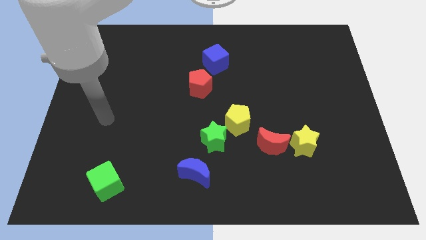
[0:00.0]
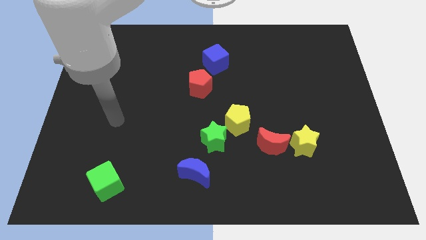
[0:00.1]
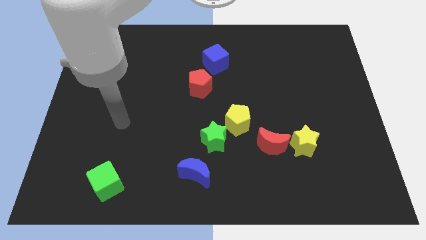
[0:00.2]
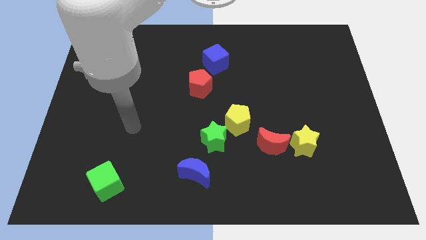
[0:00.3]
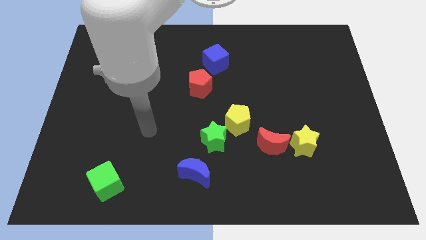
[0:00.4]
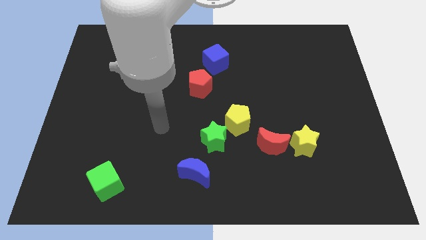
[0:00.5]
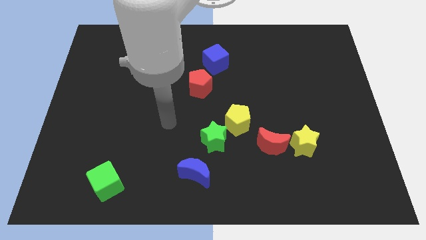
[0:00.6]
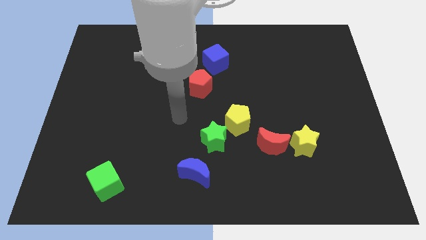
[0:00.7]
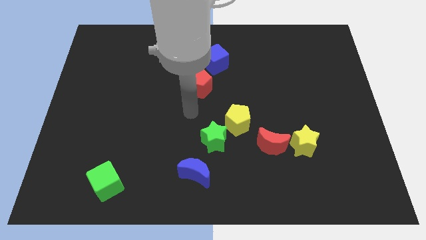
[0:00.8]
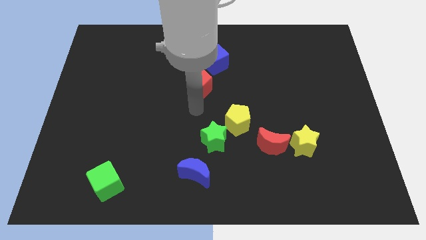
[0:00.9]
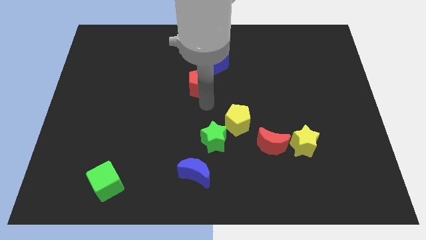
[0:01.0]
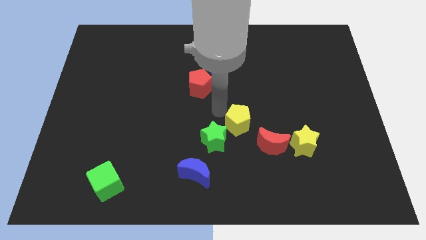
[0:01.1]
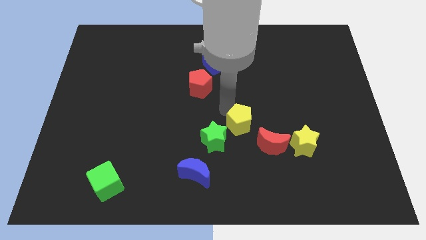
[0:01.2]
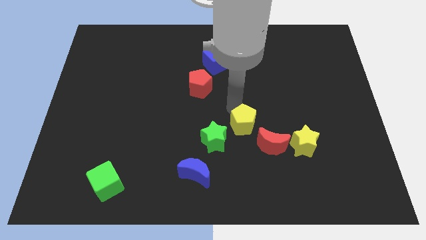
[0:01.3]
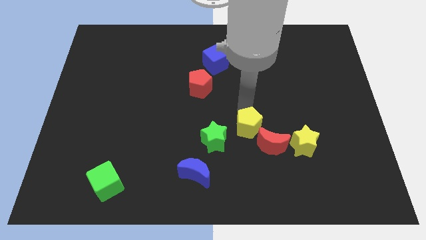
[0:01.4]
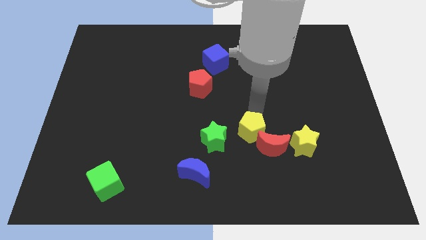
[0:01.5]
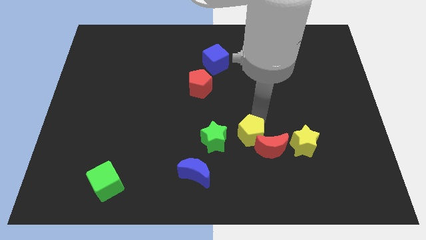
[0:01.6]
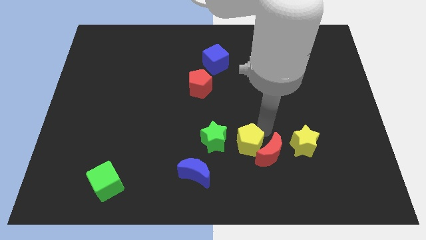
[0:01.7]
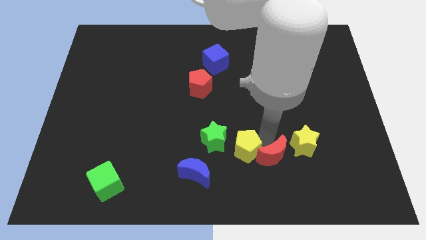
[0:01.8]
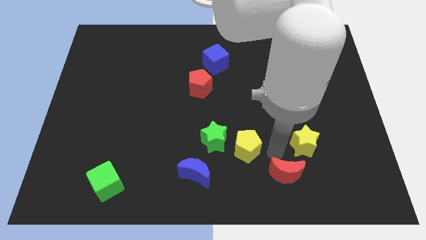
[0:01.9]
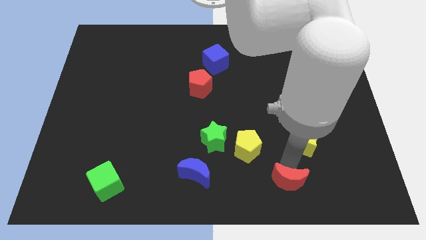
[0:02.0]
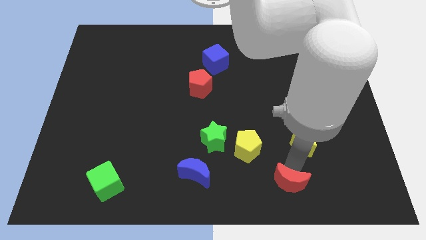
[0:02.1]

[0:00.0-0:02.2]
separate the yellow star from the red moon

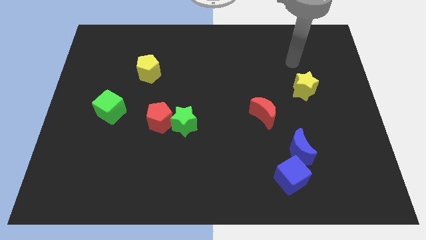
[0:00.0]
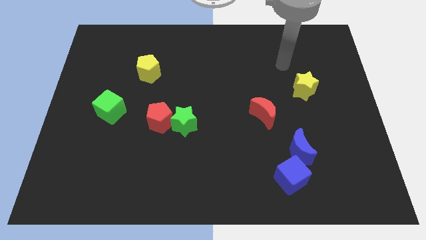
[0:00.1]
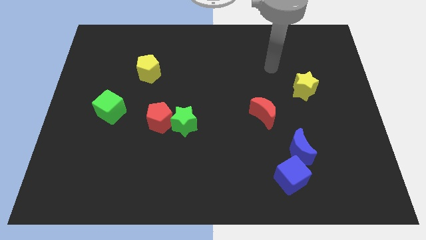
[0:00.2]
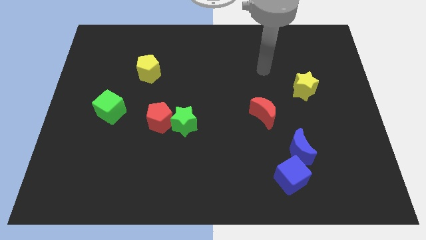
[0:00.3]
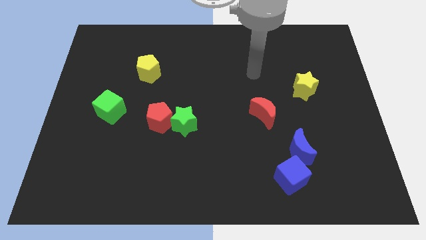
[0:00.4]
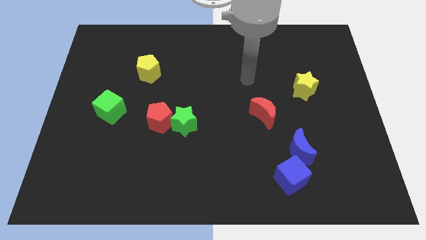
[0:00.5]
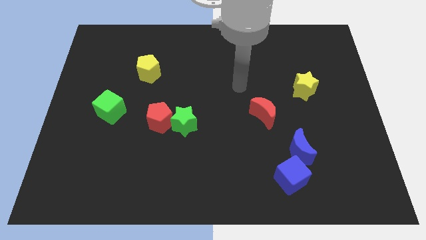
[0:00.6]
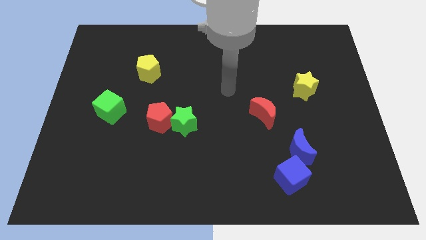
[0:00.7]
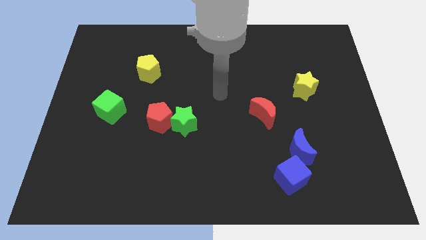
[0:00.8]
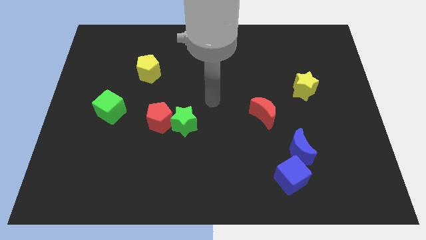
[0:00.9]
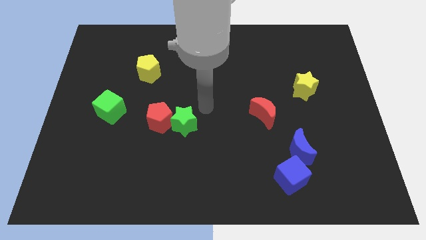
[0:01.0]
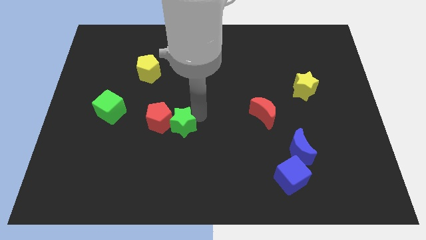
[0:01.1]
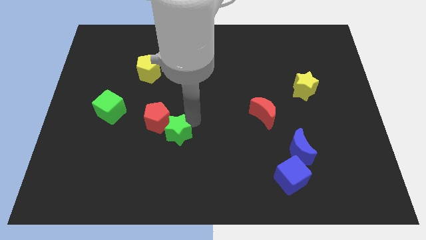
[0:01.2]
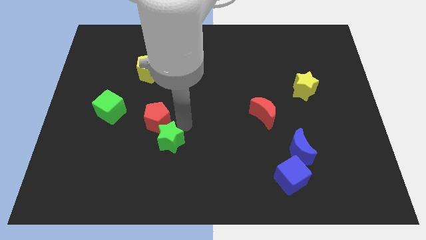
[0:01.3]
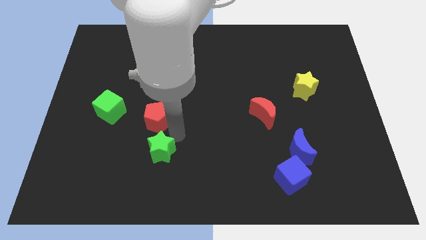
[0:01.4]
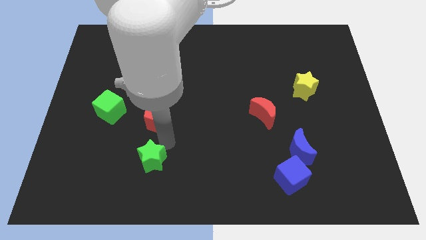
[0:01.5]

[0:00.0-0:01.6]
move the red pentagon away from the green star

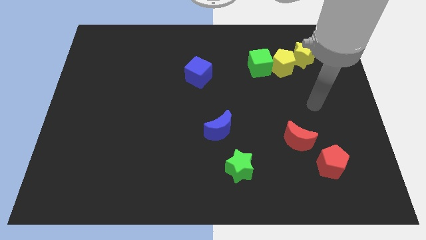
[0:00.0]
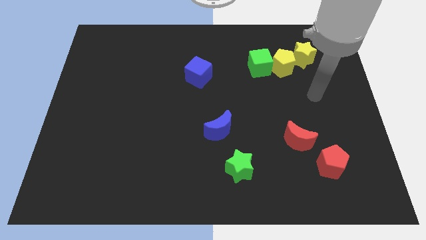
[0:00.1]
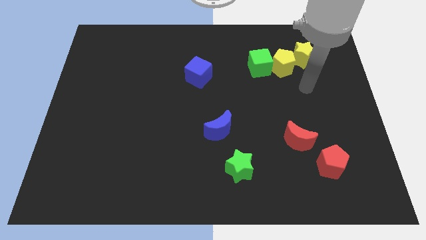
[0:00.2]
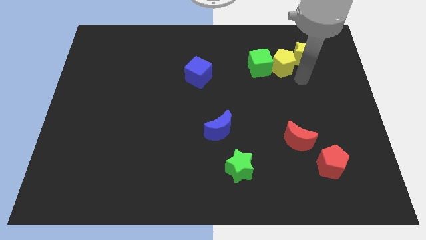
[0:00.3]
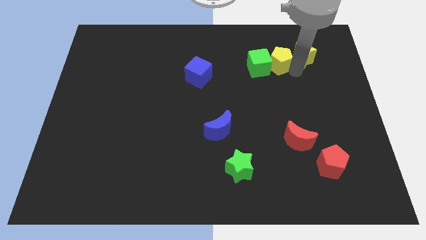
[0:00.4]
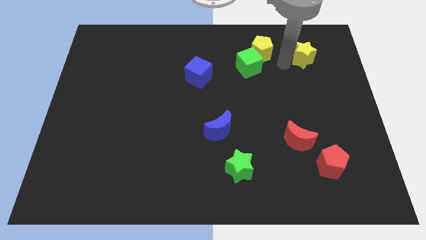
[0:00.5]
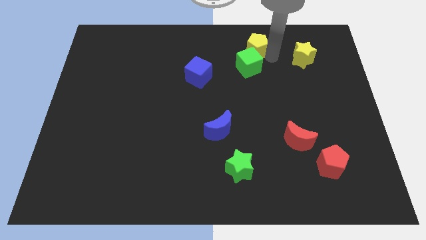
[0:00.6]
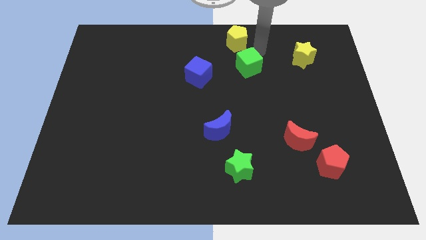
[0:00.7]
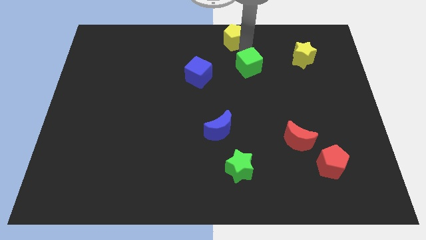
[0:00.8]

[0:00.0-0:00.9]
separate the green cube from the yellow pentagon

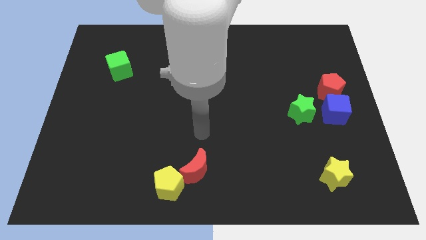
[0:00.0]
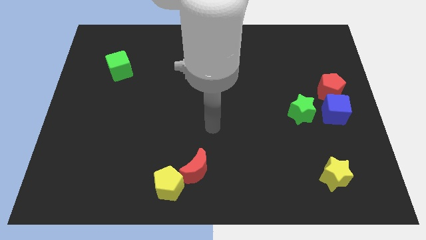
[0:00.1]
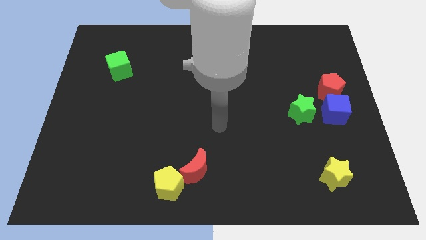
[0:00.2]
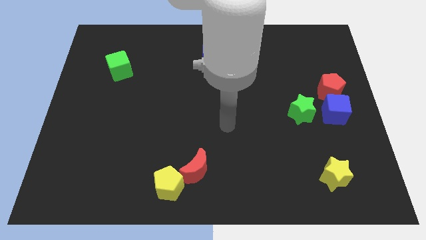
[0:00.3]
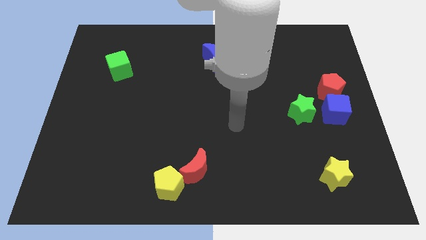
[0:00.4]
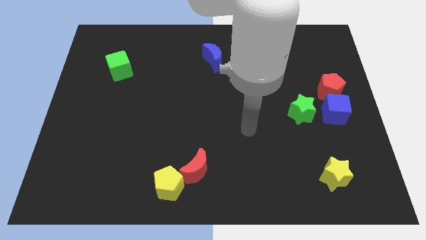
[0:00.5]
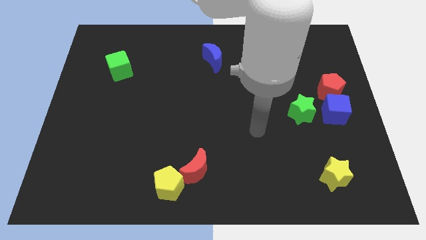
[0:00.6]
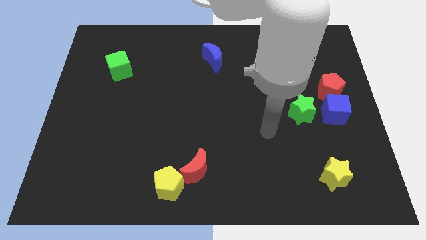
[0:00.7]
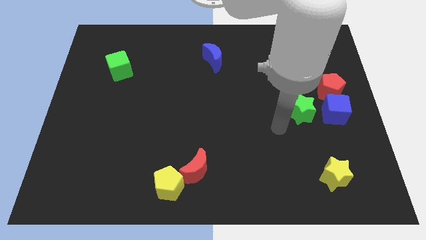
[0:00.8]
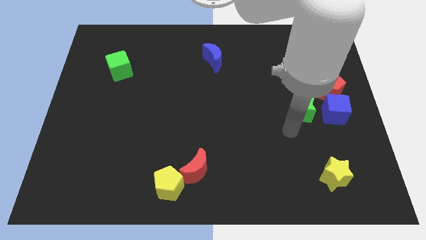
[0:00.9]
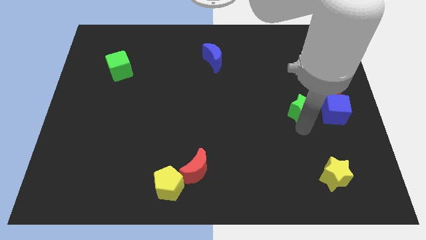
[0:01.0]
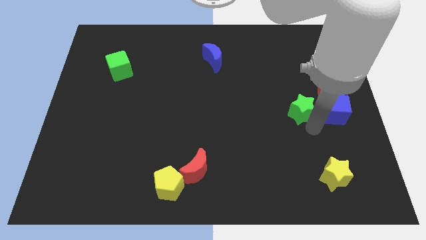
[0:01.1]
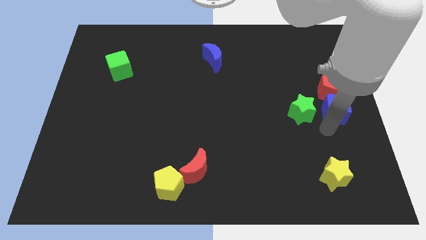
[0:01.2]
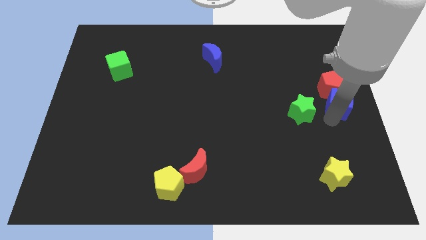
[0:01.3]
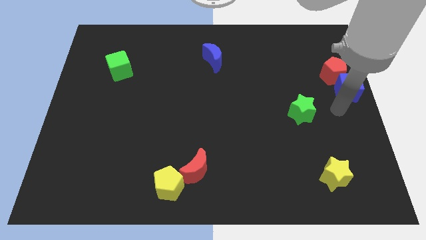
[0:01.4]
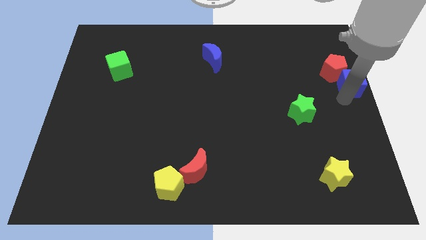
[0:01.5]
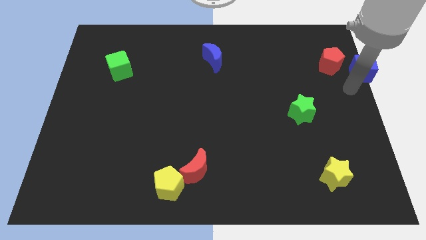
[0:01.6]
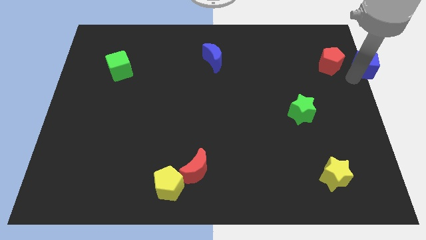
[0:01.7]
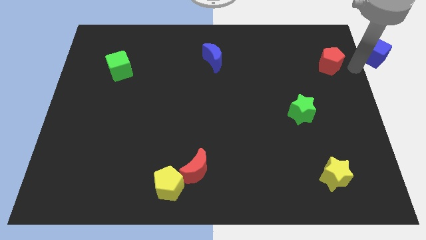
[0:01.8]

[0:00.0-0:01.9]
pull the red pentagon apart from the blue cube

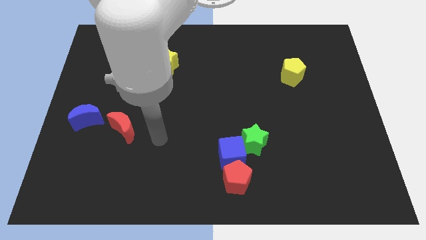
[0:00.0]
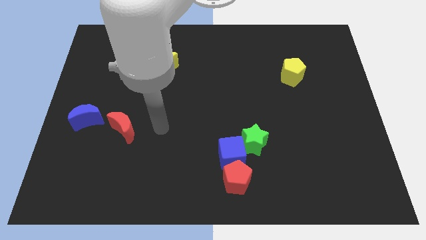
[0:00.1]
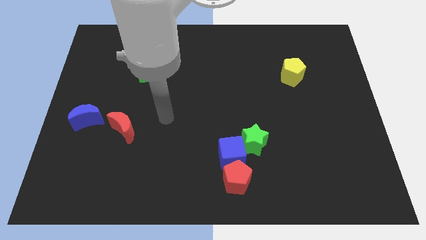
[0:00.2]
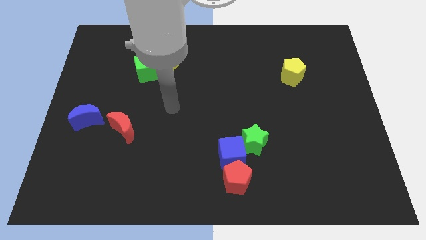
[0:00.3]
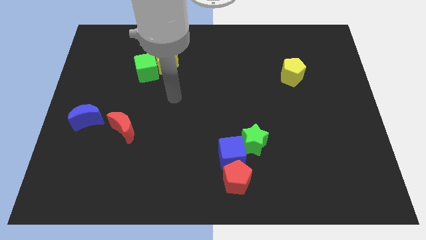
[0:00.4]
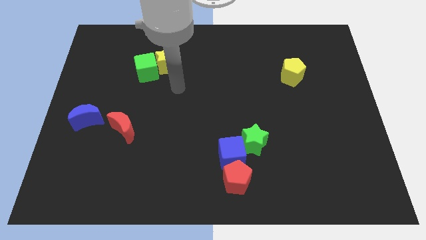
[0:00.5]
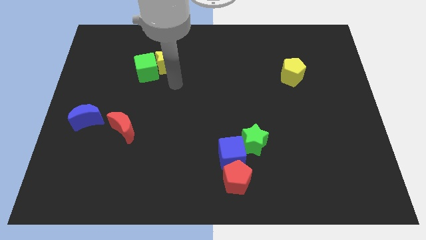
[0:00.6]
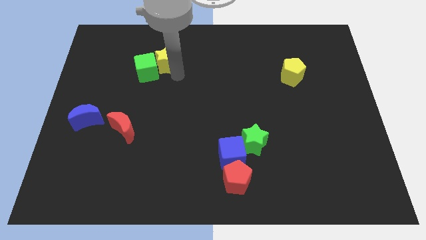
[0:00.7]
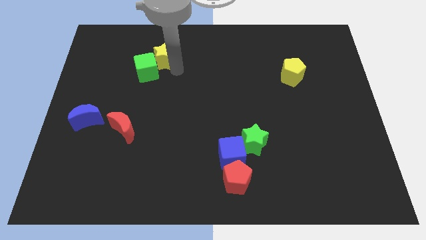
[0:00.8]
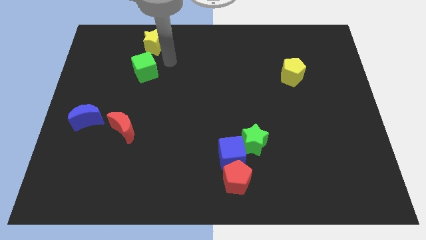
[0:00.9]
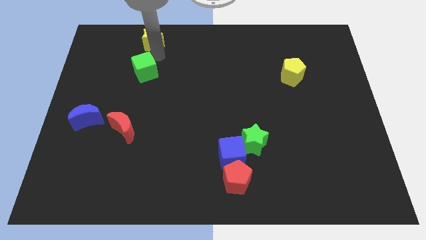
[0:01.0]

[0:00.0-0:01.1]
pull the green cube apart from the yellow star

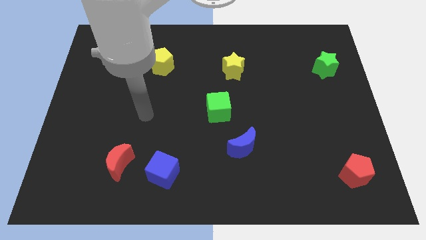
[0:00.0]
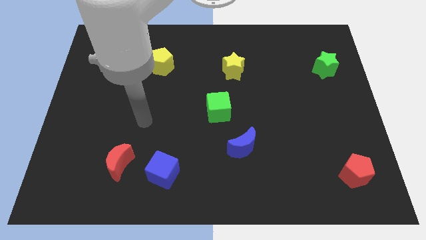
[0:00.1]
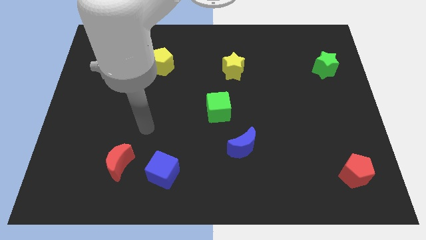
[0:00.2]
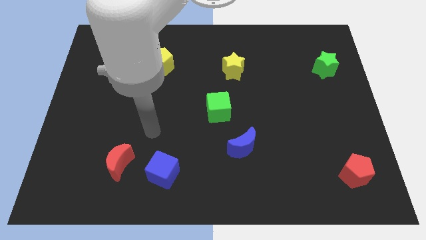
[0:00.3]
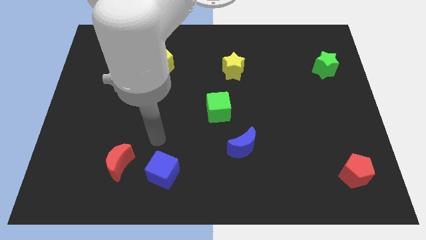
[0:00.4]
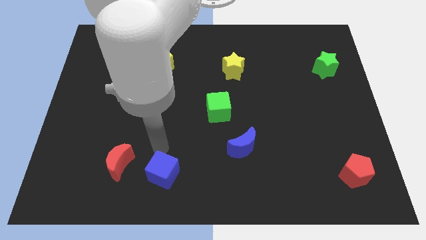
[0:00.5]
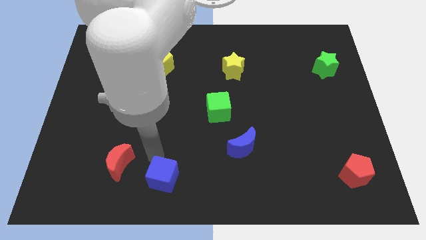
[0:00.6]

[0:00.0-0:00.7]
move the red moon away from the blue cube

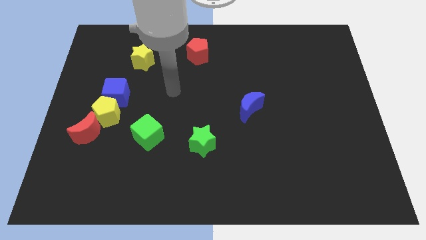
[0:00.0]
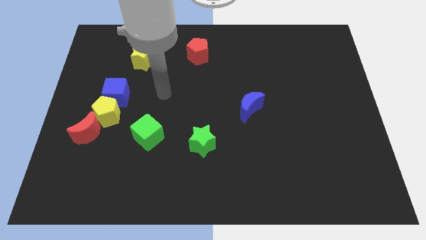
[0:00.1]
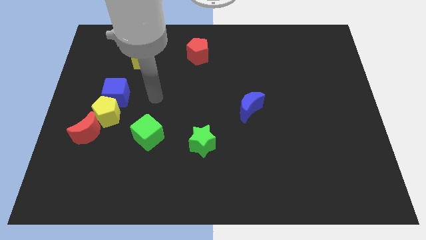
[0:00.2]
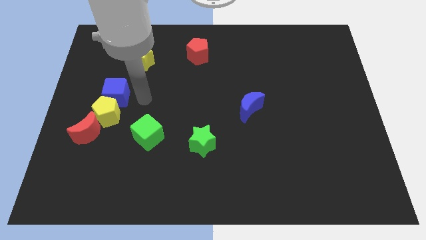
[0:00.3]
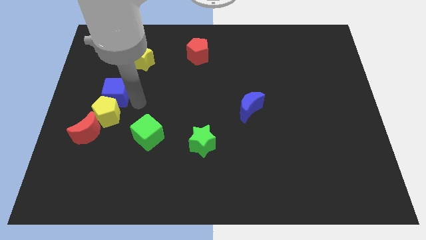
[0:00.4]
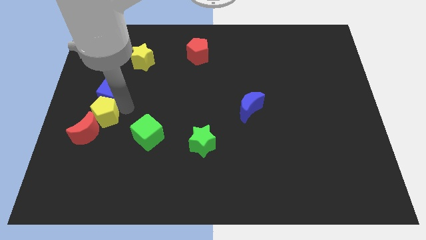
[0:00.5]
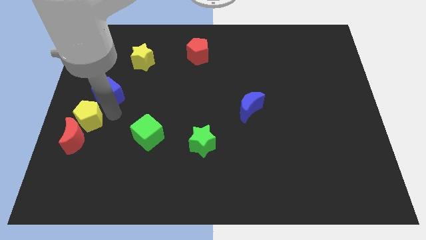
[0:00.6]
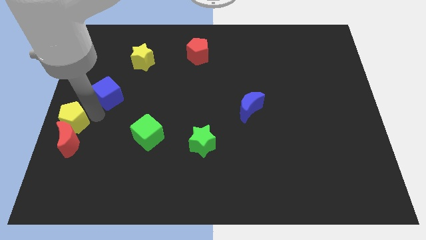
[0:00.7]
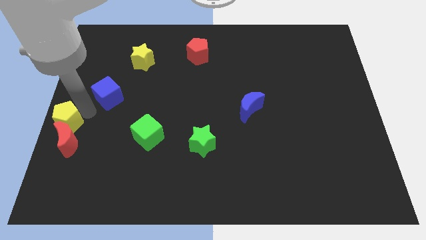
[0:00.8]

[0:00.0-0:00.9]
pull the blue cube apart from the yellow pentagon
